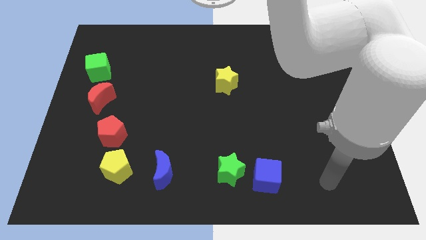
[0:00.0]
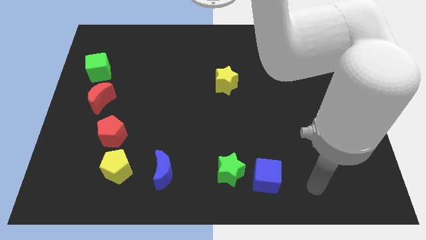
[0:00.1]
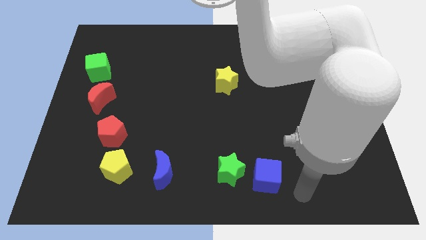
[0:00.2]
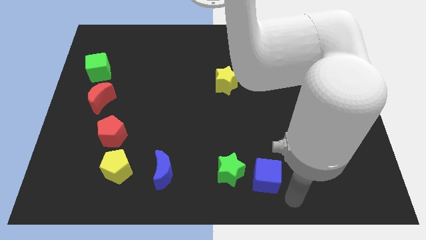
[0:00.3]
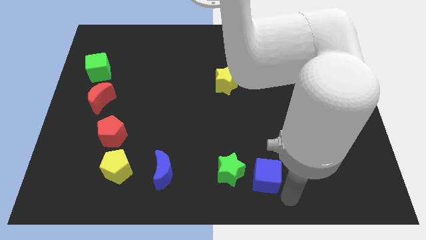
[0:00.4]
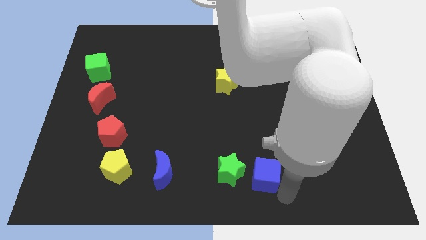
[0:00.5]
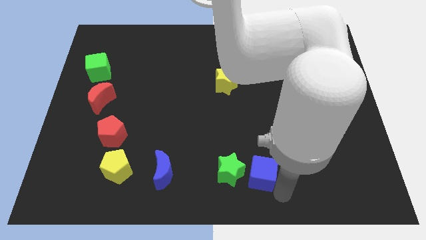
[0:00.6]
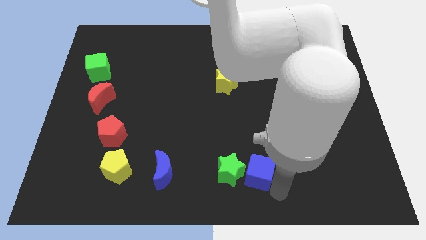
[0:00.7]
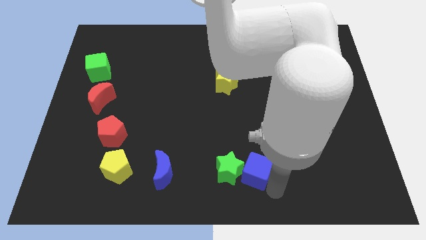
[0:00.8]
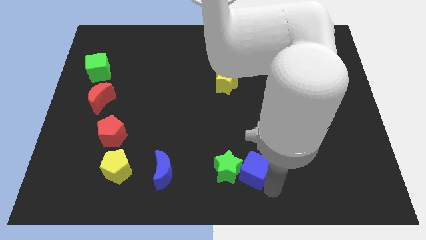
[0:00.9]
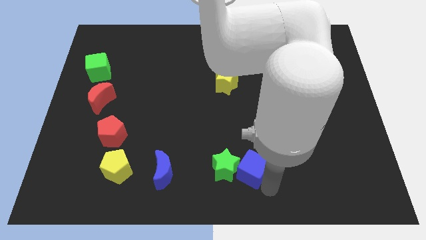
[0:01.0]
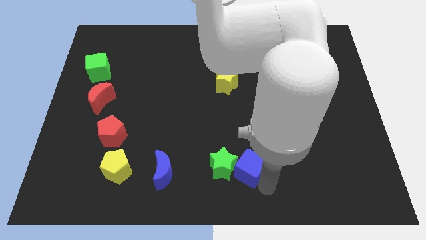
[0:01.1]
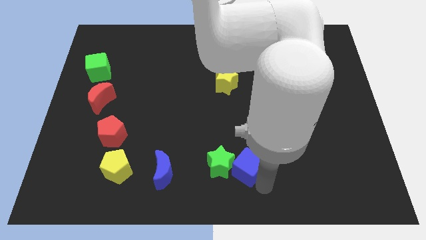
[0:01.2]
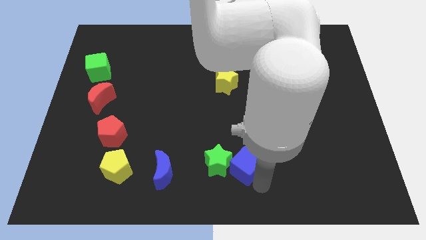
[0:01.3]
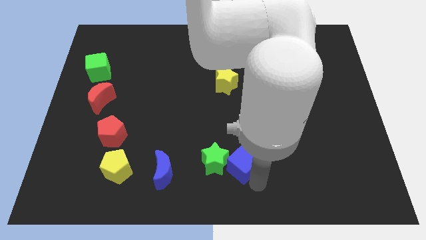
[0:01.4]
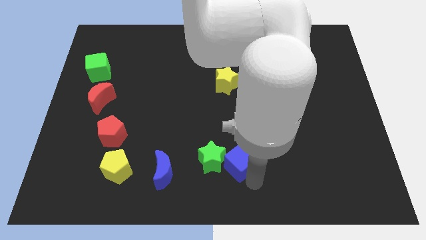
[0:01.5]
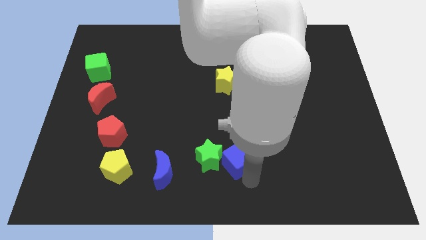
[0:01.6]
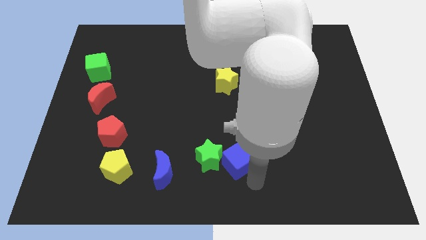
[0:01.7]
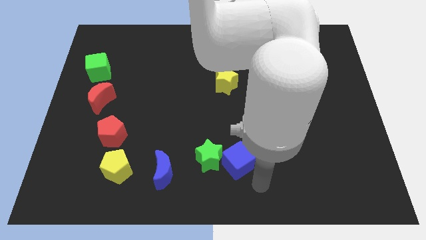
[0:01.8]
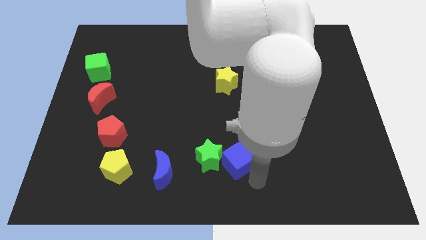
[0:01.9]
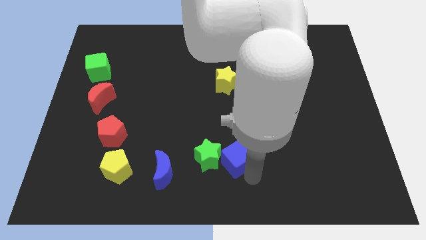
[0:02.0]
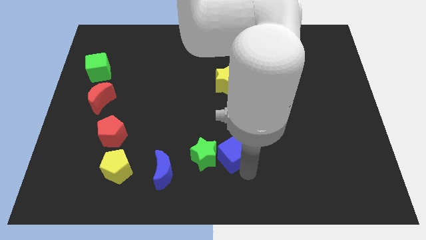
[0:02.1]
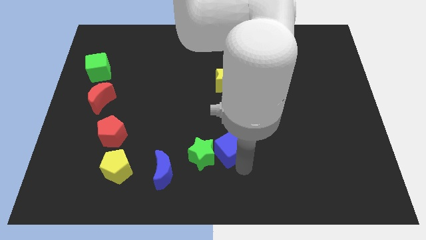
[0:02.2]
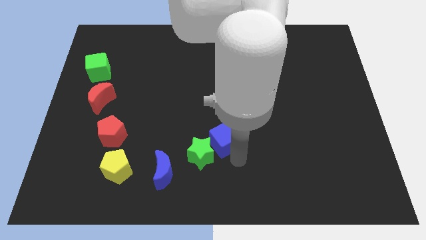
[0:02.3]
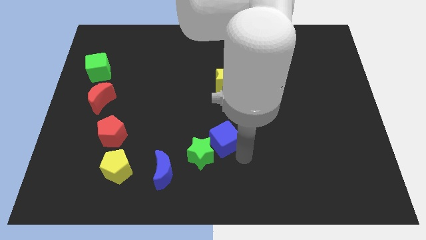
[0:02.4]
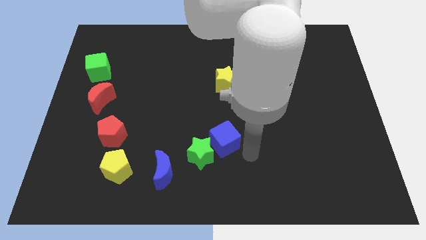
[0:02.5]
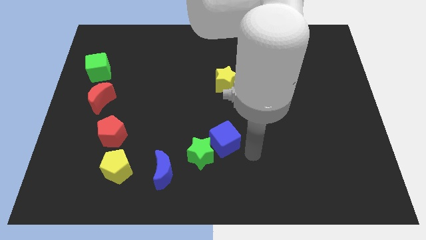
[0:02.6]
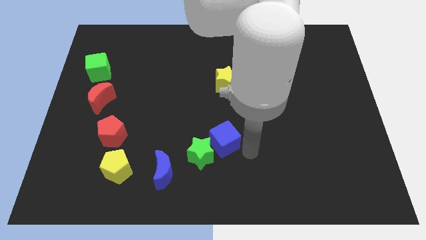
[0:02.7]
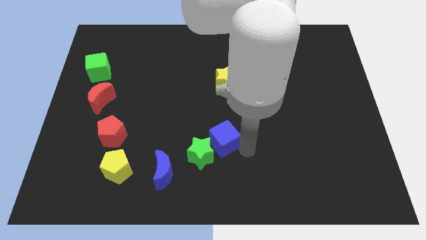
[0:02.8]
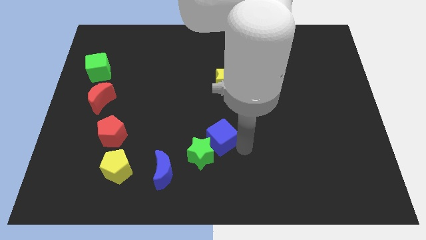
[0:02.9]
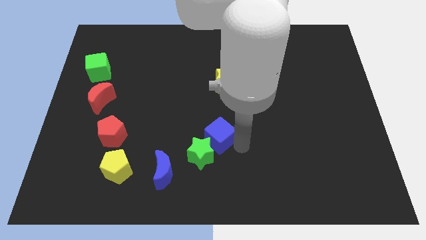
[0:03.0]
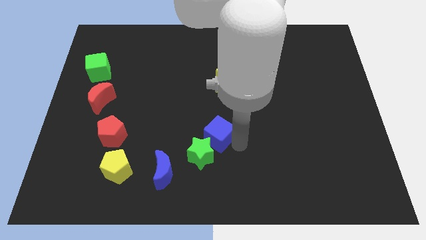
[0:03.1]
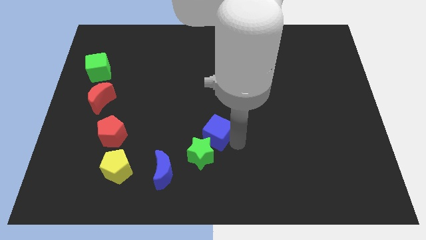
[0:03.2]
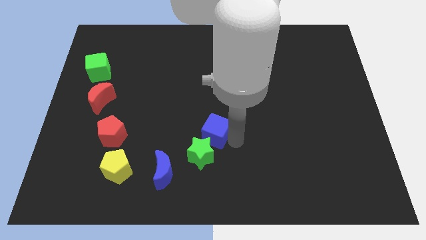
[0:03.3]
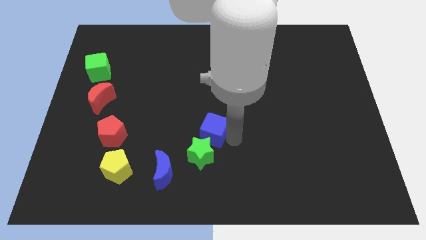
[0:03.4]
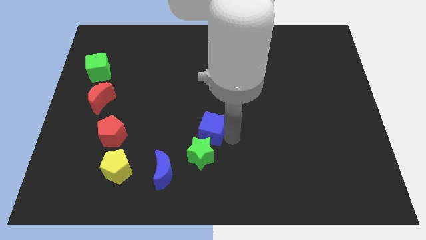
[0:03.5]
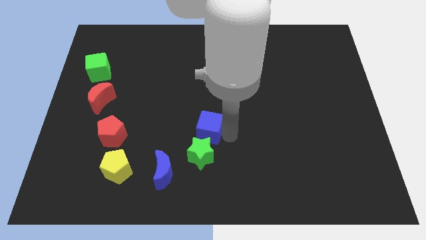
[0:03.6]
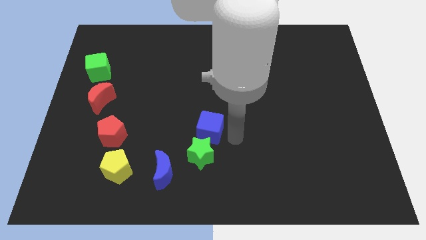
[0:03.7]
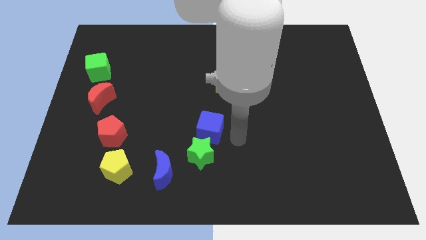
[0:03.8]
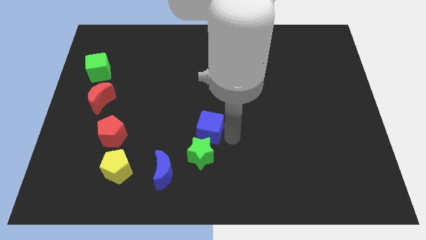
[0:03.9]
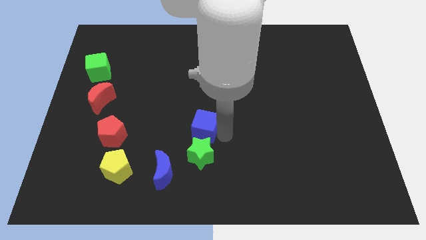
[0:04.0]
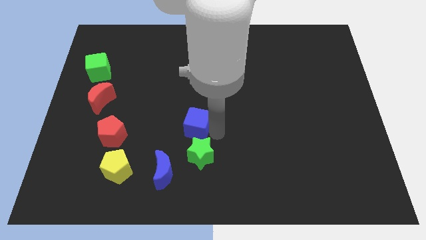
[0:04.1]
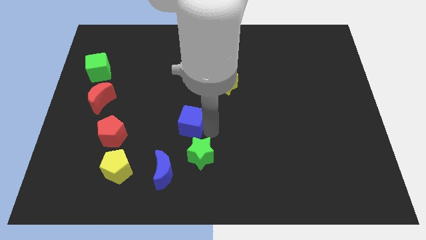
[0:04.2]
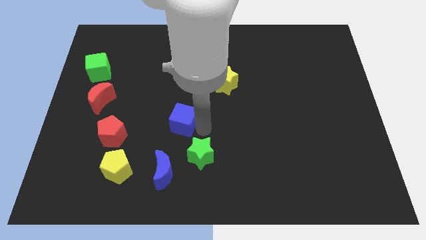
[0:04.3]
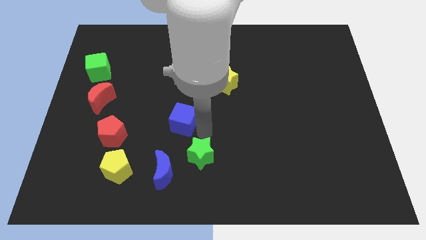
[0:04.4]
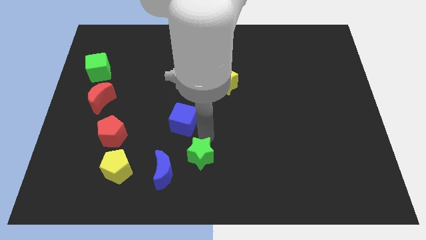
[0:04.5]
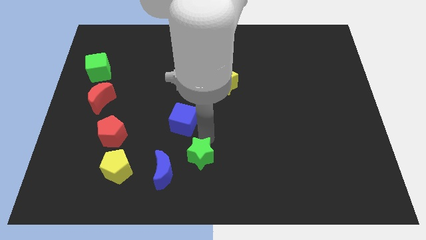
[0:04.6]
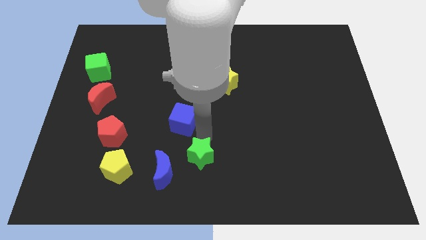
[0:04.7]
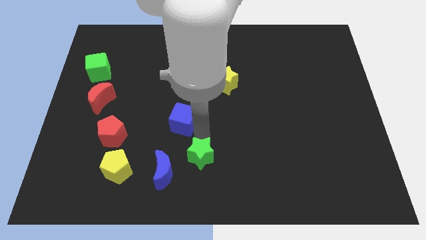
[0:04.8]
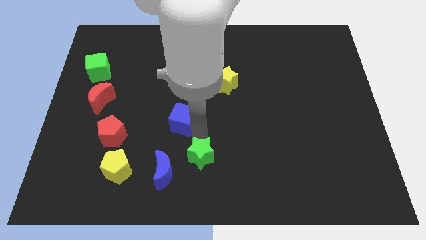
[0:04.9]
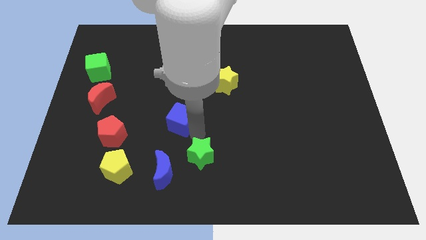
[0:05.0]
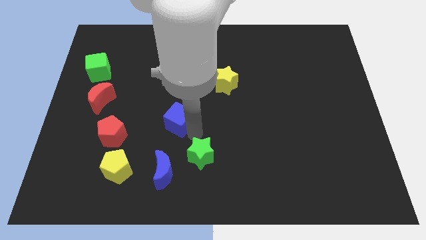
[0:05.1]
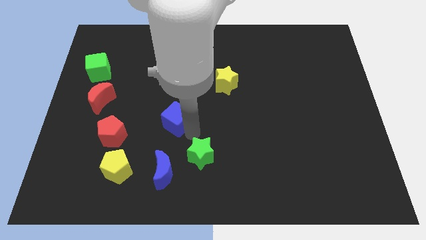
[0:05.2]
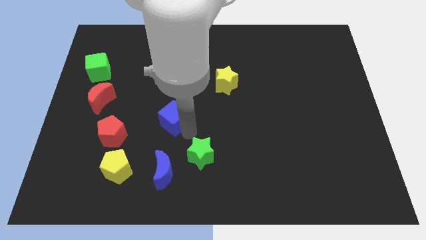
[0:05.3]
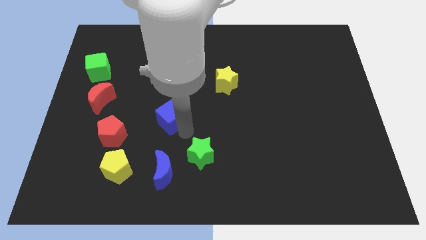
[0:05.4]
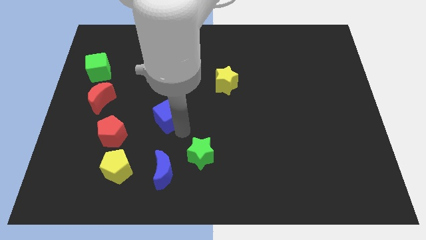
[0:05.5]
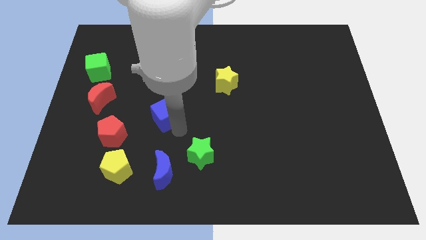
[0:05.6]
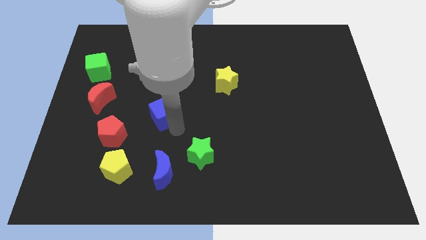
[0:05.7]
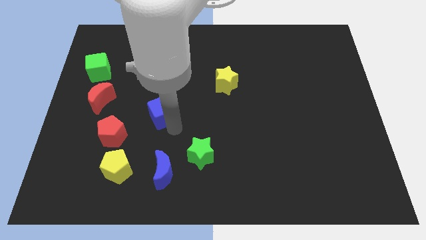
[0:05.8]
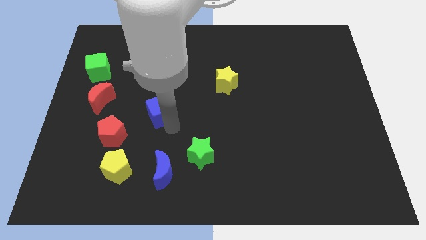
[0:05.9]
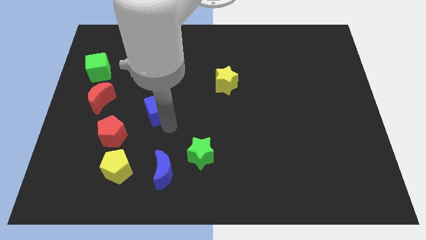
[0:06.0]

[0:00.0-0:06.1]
slide the blue cube right of the red moon

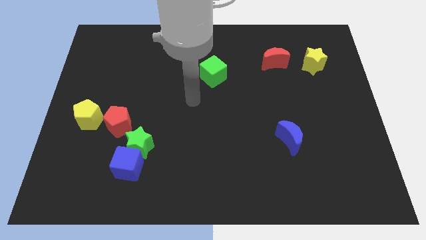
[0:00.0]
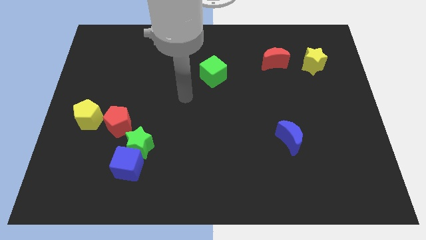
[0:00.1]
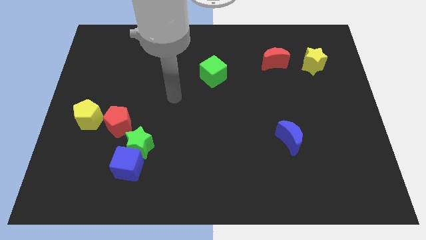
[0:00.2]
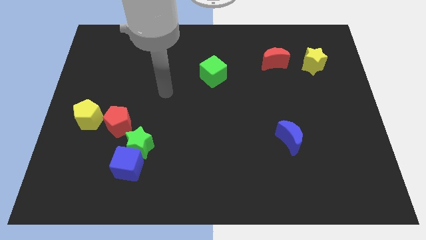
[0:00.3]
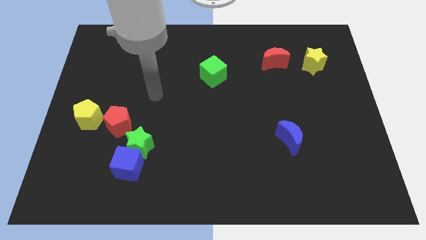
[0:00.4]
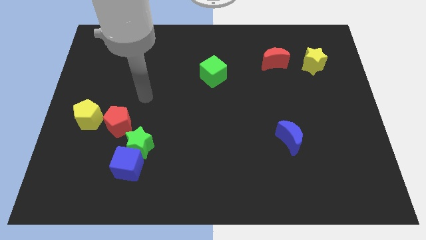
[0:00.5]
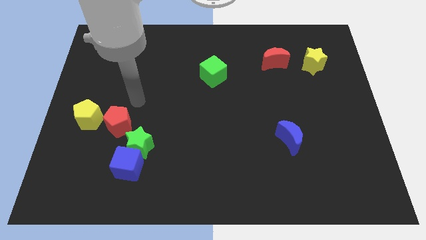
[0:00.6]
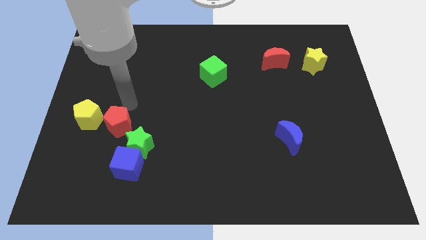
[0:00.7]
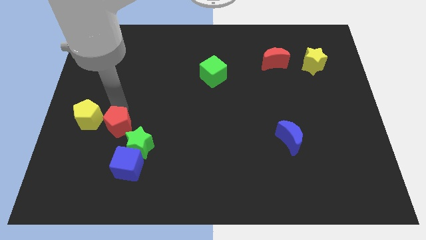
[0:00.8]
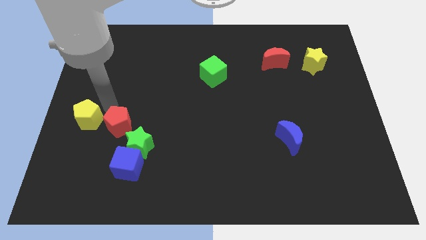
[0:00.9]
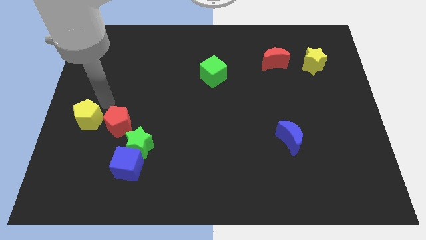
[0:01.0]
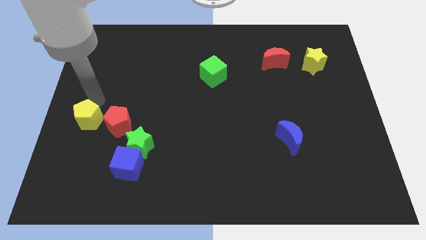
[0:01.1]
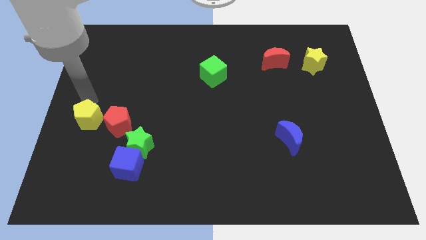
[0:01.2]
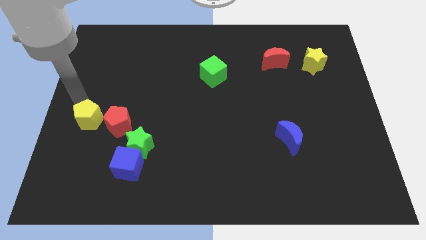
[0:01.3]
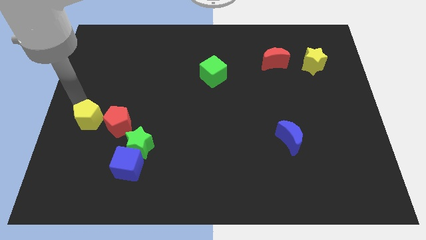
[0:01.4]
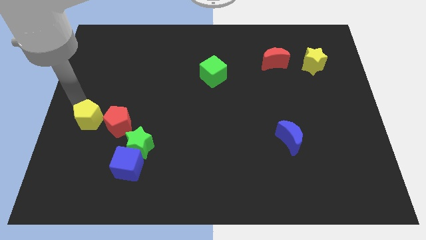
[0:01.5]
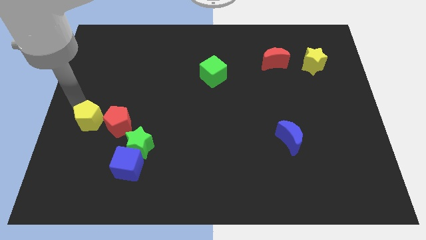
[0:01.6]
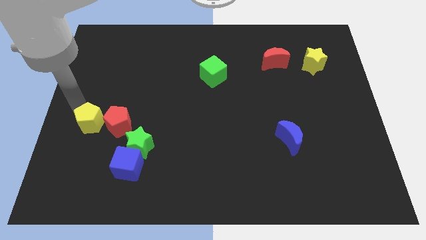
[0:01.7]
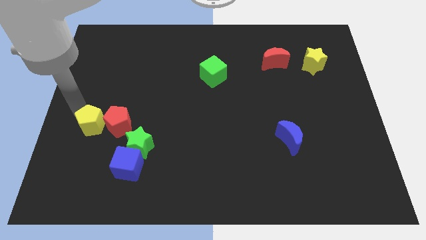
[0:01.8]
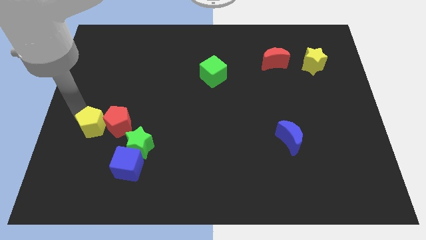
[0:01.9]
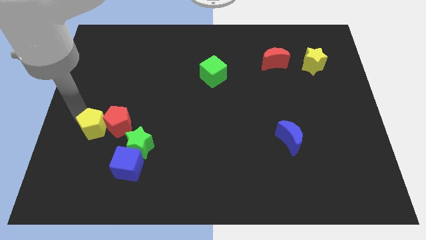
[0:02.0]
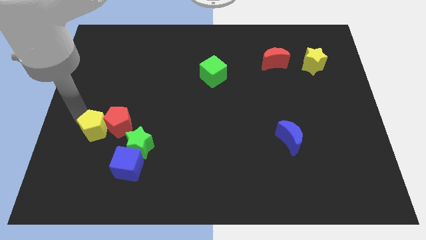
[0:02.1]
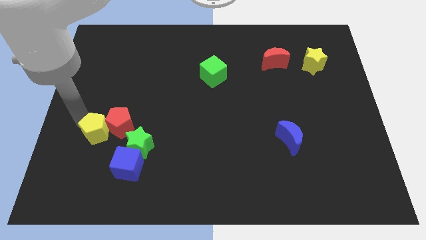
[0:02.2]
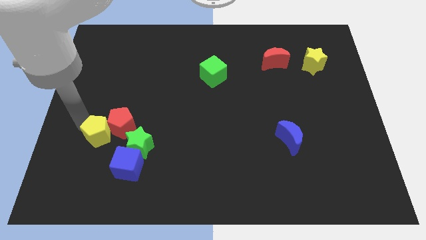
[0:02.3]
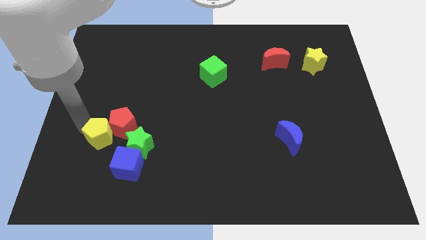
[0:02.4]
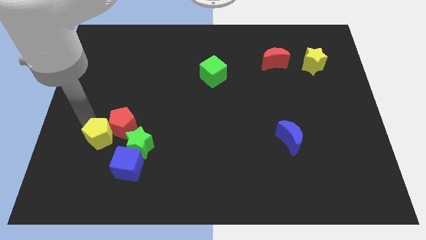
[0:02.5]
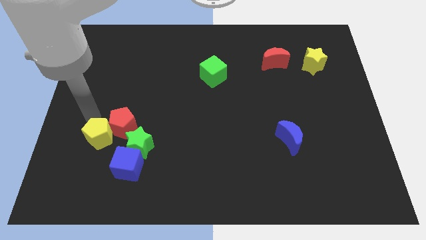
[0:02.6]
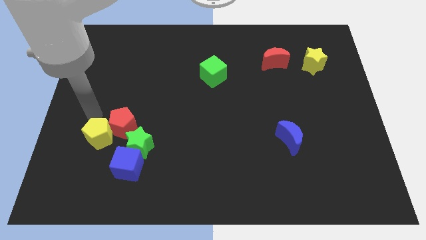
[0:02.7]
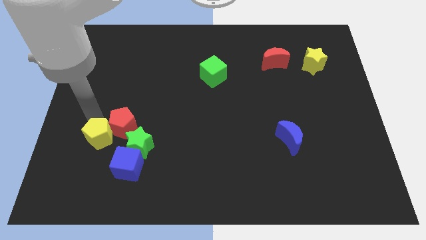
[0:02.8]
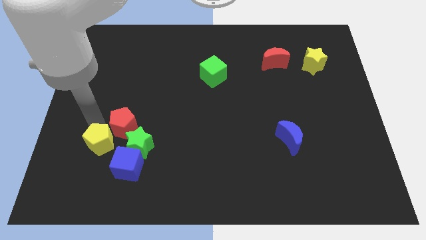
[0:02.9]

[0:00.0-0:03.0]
move the yellow pentagon below the red pentagon
